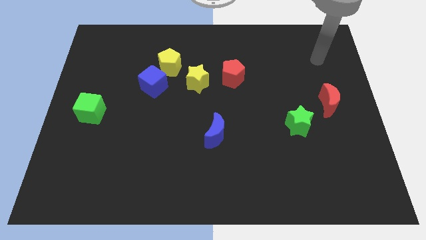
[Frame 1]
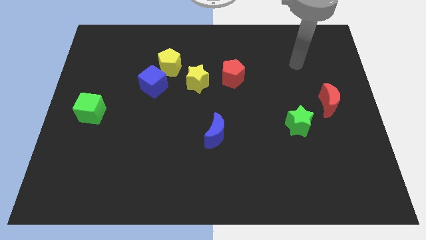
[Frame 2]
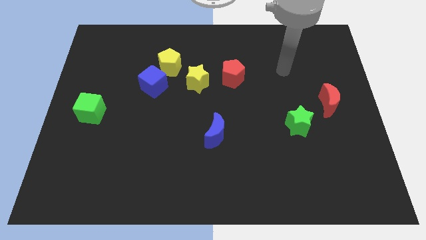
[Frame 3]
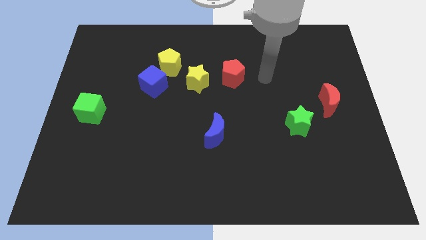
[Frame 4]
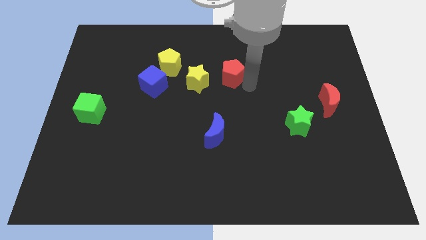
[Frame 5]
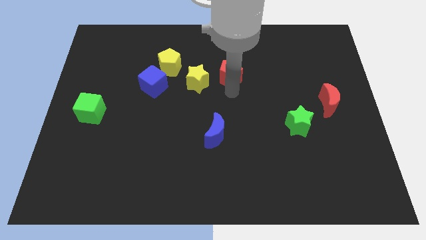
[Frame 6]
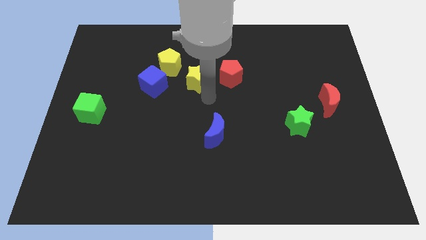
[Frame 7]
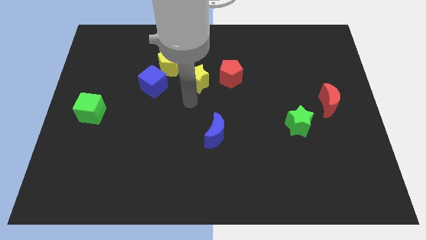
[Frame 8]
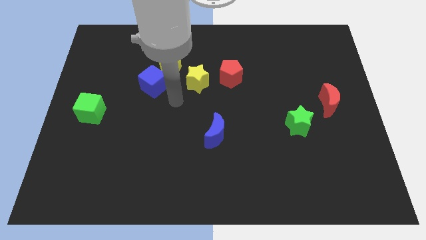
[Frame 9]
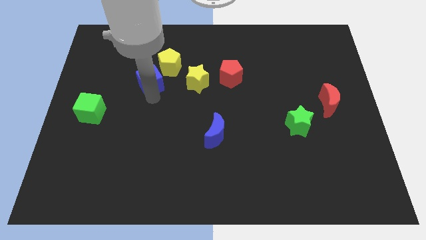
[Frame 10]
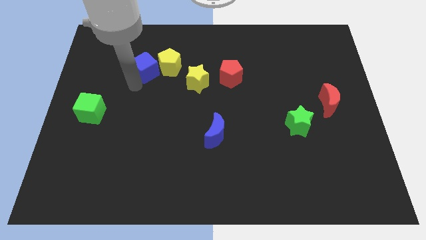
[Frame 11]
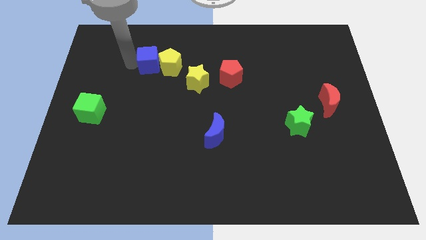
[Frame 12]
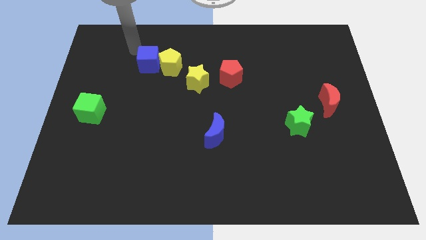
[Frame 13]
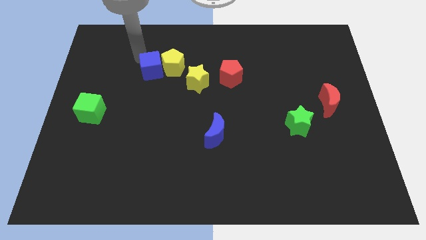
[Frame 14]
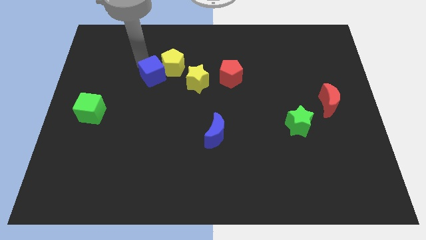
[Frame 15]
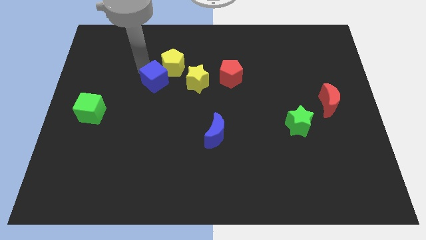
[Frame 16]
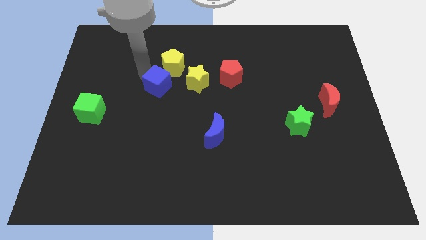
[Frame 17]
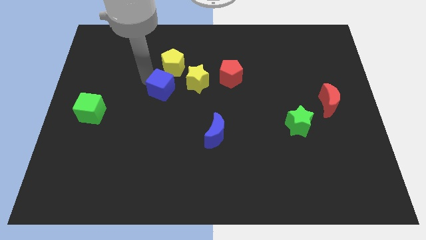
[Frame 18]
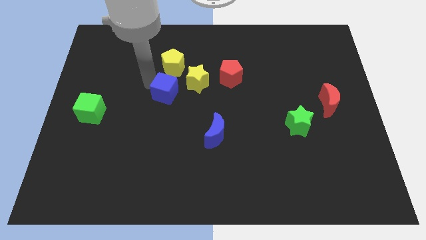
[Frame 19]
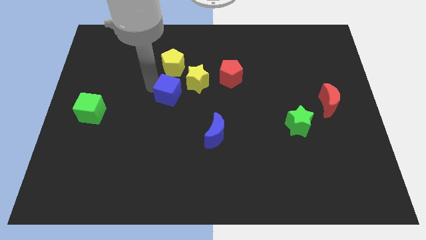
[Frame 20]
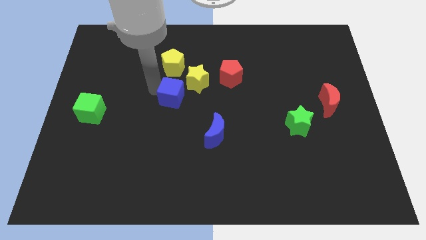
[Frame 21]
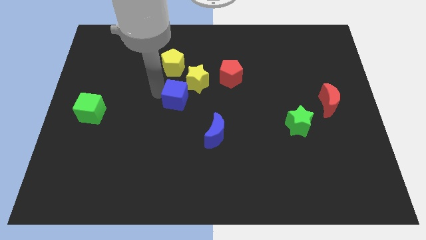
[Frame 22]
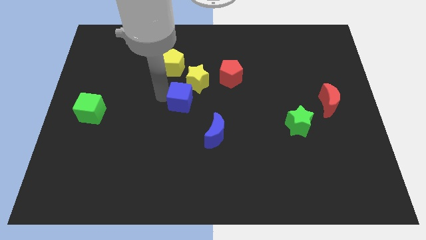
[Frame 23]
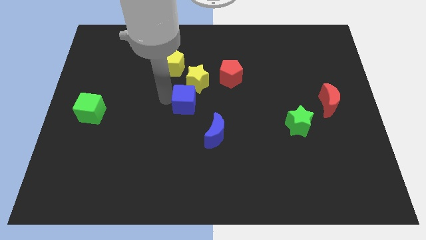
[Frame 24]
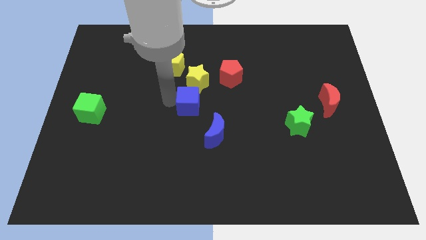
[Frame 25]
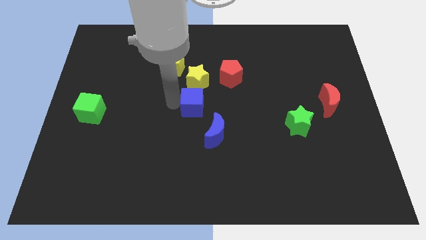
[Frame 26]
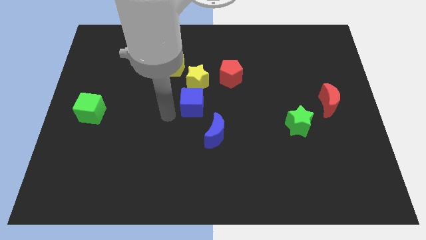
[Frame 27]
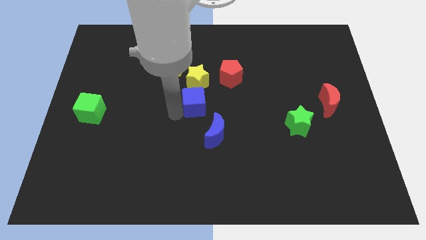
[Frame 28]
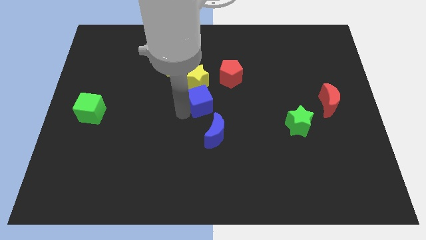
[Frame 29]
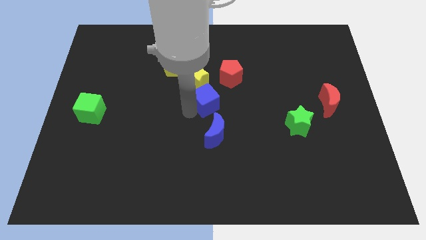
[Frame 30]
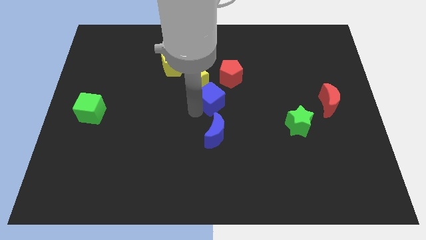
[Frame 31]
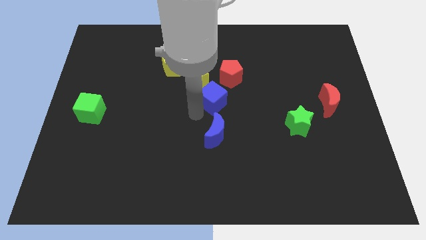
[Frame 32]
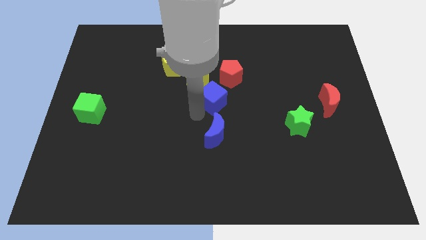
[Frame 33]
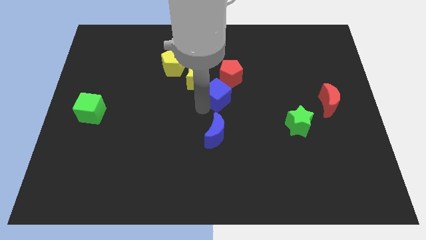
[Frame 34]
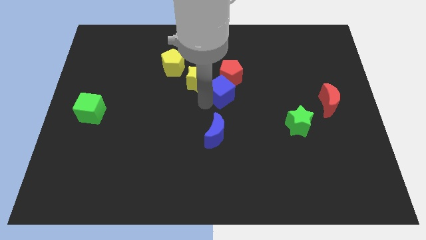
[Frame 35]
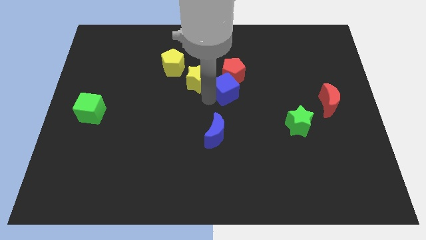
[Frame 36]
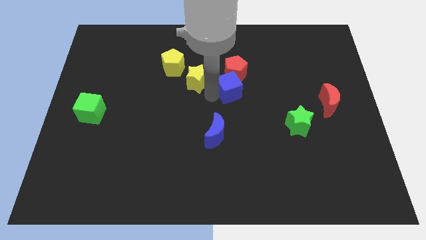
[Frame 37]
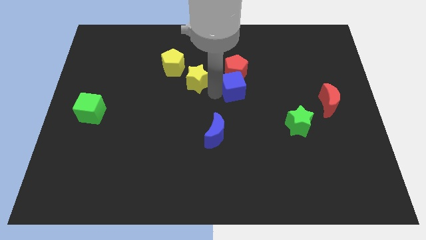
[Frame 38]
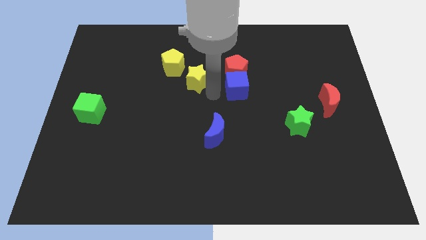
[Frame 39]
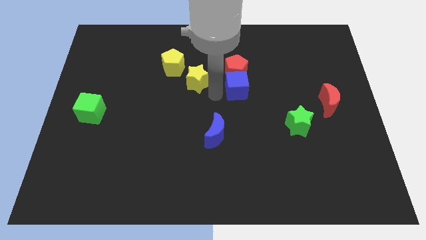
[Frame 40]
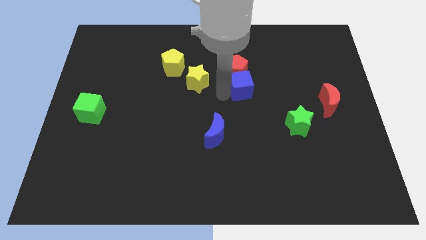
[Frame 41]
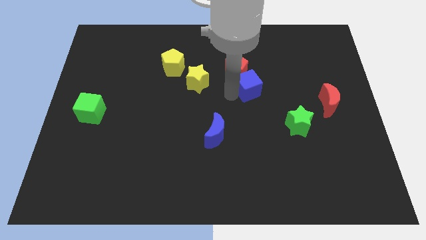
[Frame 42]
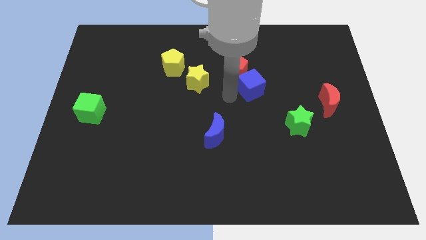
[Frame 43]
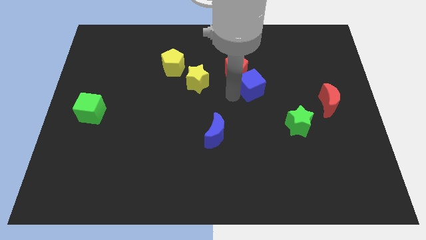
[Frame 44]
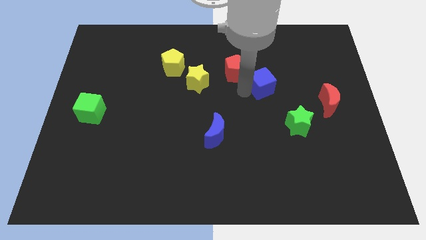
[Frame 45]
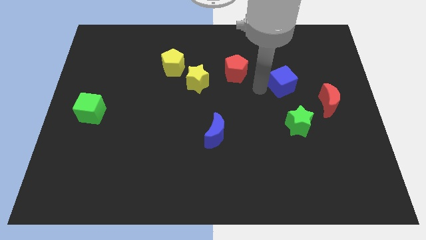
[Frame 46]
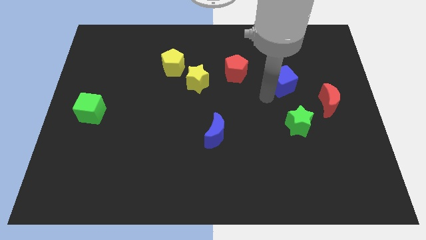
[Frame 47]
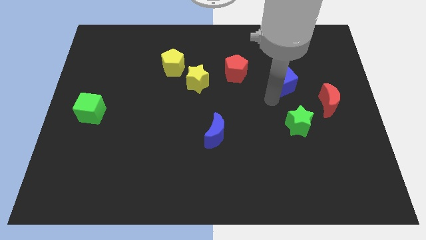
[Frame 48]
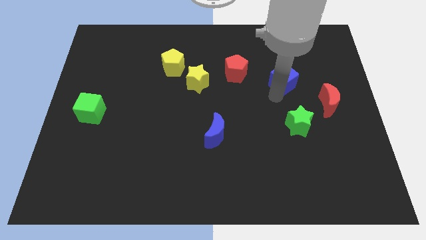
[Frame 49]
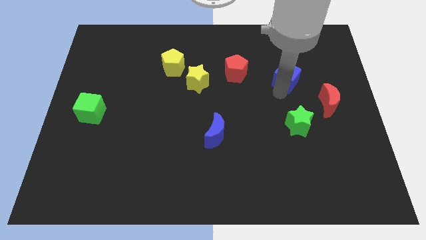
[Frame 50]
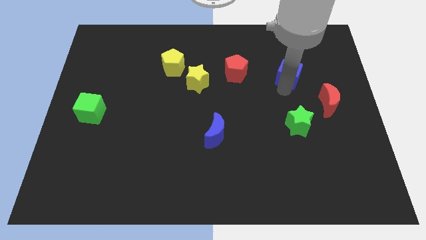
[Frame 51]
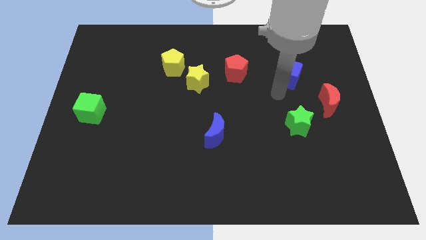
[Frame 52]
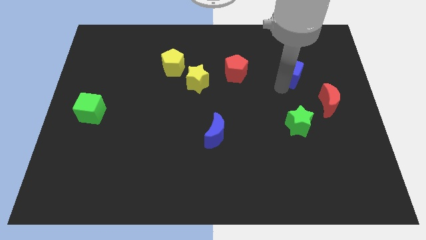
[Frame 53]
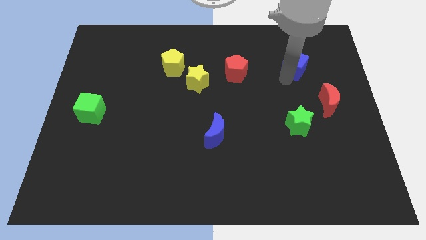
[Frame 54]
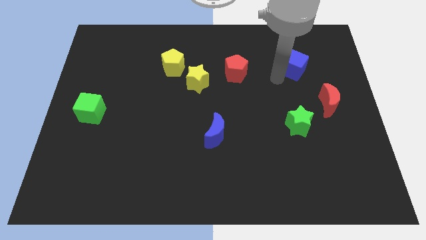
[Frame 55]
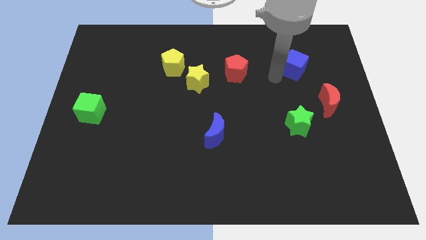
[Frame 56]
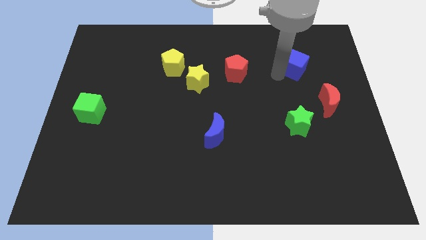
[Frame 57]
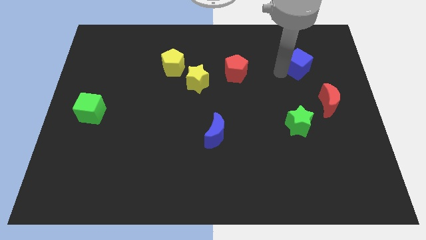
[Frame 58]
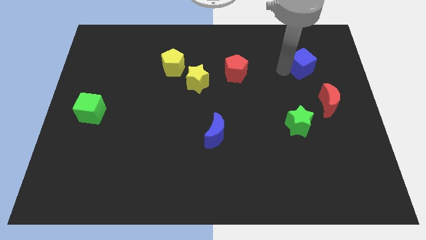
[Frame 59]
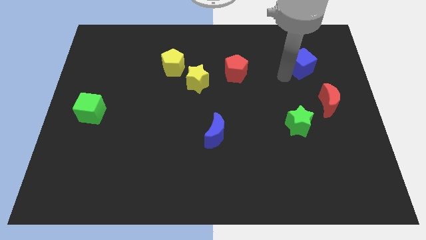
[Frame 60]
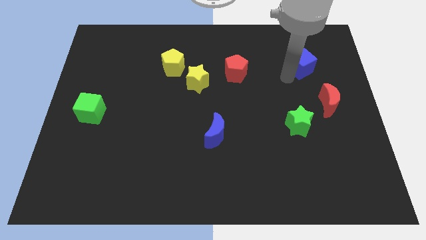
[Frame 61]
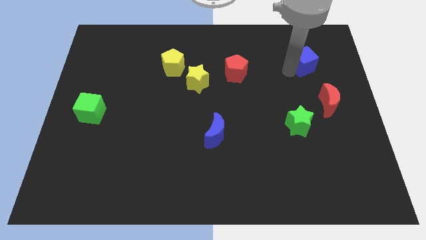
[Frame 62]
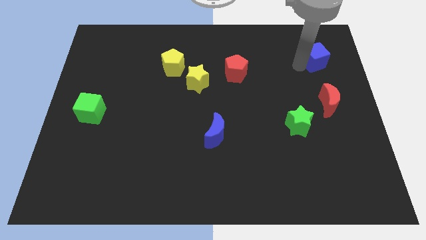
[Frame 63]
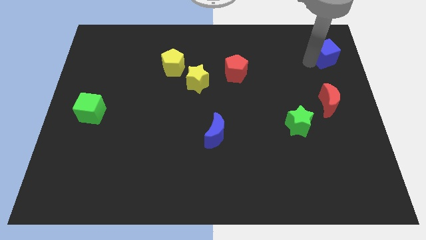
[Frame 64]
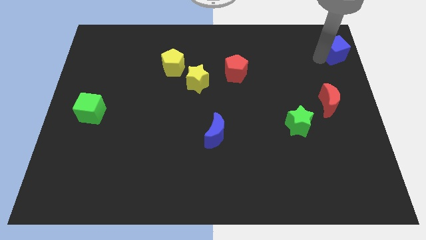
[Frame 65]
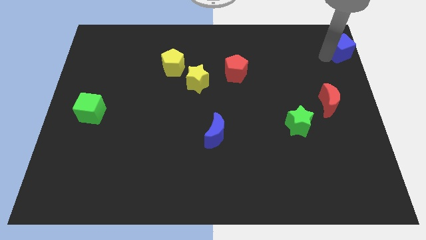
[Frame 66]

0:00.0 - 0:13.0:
put the blue cube to the upper right corner
